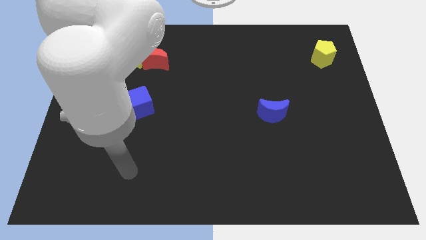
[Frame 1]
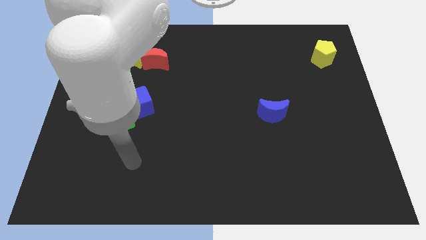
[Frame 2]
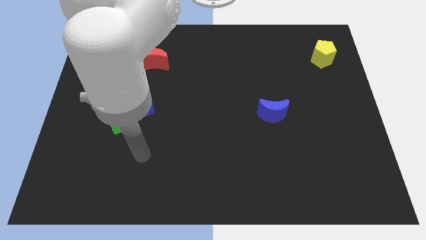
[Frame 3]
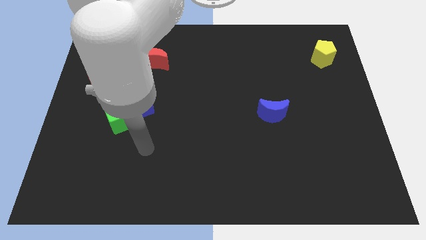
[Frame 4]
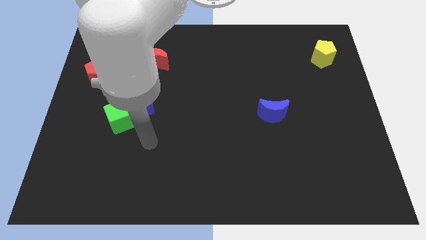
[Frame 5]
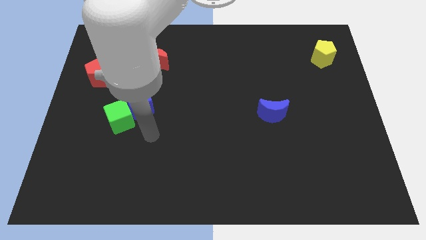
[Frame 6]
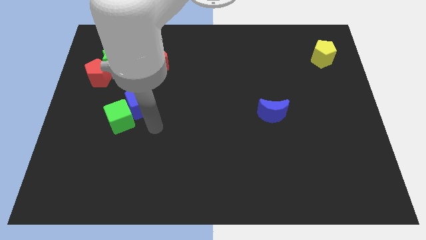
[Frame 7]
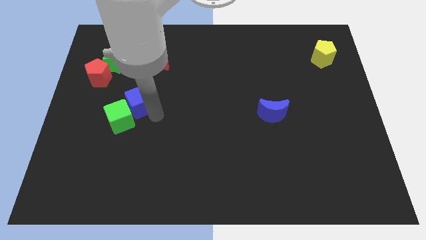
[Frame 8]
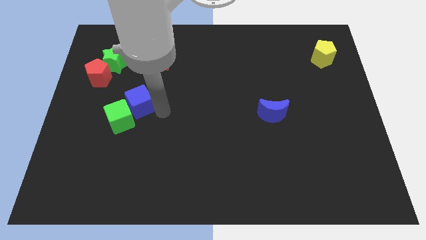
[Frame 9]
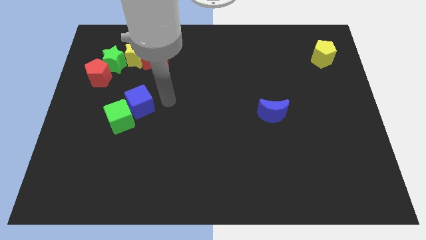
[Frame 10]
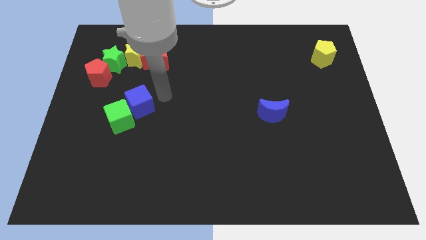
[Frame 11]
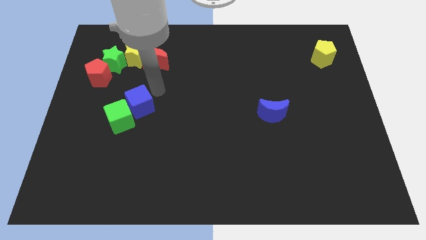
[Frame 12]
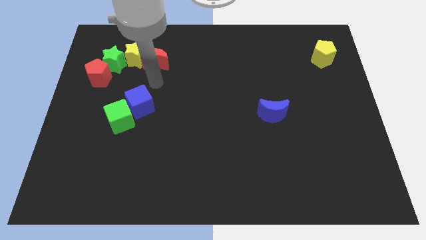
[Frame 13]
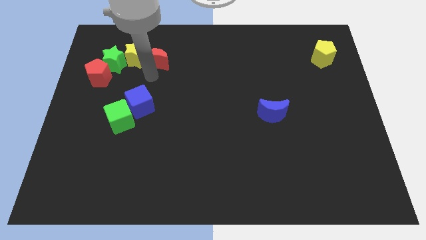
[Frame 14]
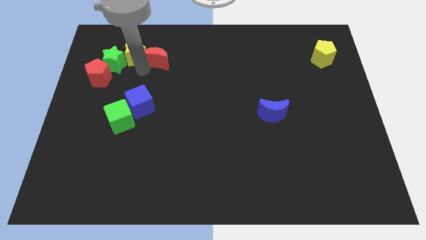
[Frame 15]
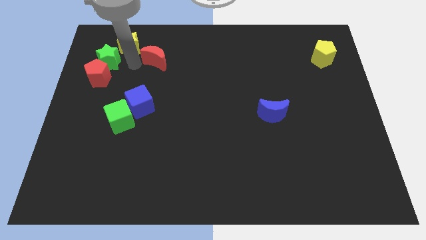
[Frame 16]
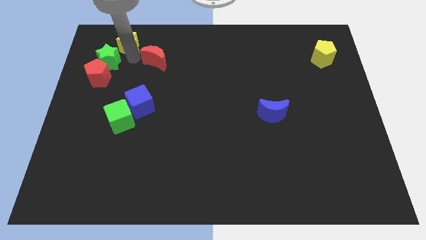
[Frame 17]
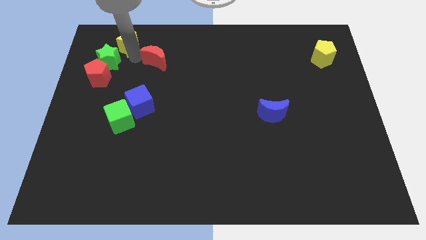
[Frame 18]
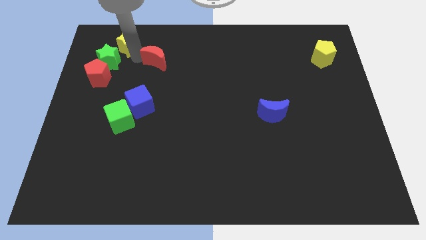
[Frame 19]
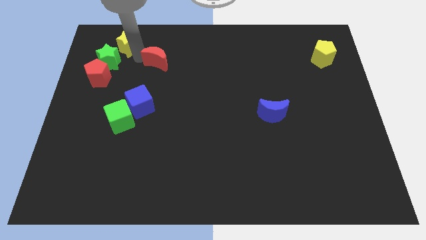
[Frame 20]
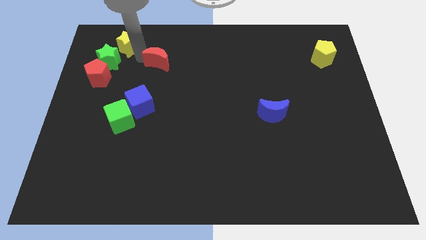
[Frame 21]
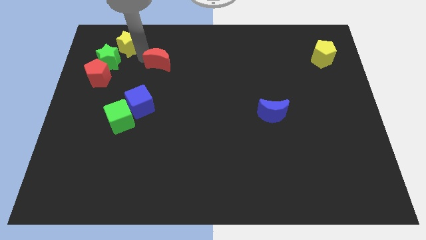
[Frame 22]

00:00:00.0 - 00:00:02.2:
pull the red moon apart from the yellow star

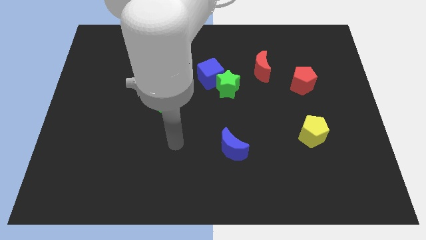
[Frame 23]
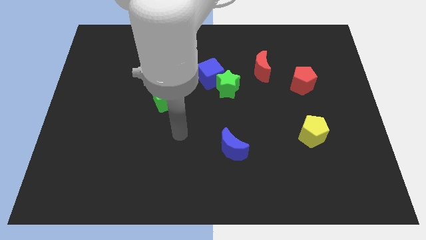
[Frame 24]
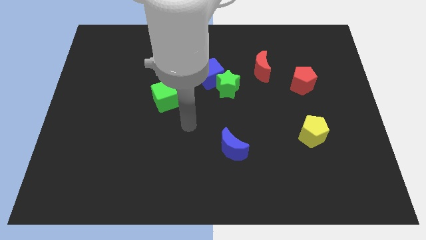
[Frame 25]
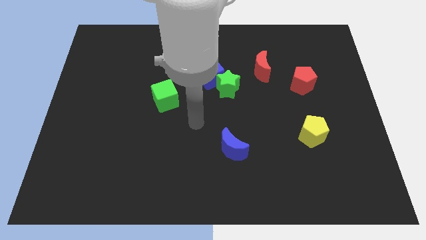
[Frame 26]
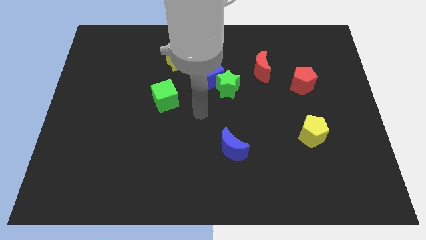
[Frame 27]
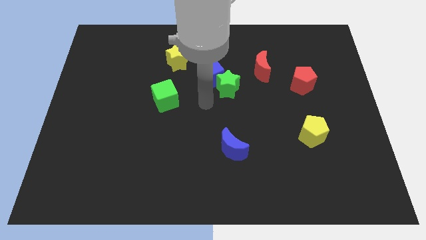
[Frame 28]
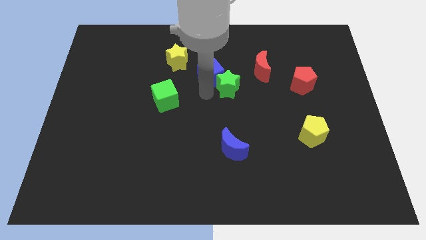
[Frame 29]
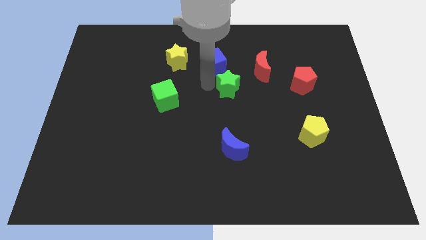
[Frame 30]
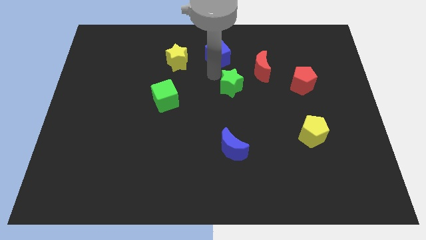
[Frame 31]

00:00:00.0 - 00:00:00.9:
pull the green star apart from the blue cube

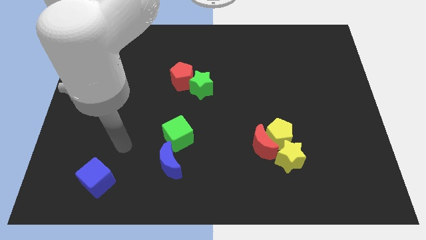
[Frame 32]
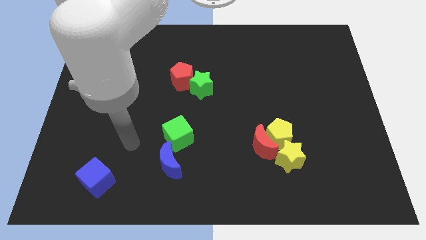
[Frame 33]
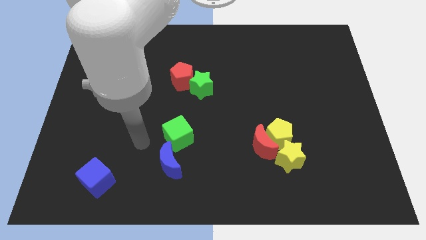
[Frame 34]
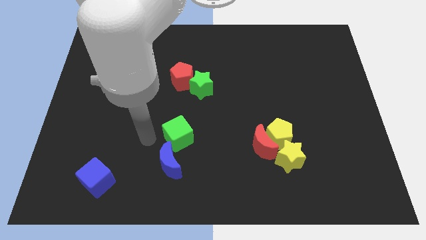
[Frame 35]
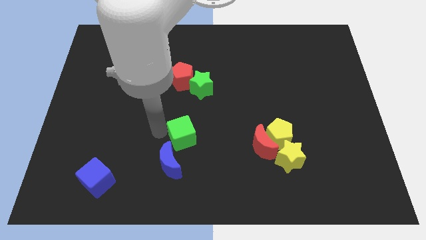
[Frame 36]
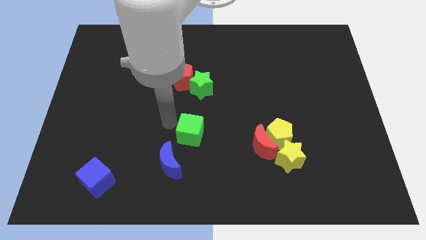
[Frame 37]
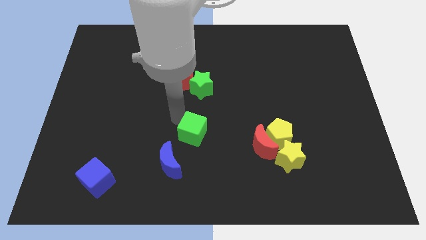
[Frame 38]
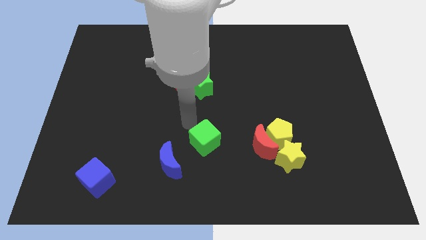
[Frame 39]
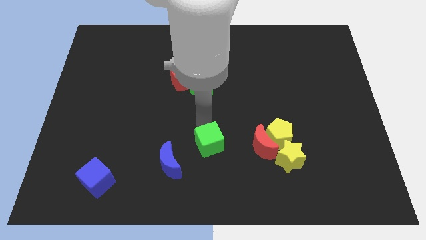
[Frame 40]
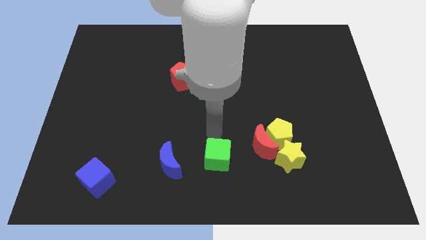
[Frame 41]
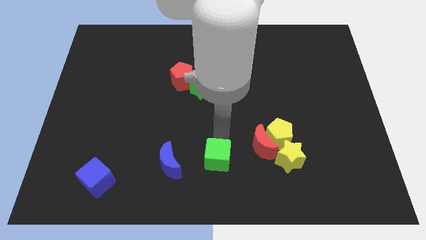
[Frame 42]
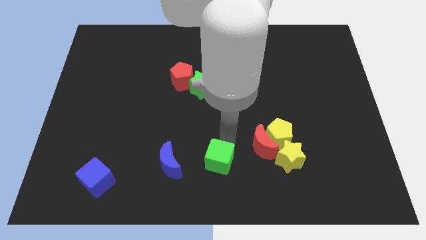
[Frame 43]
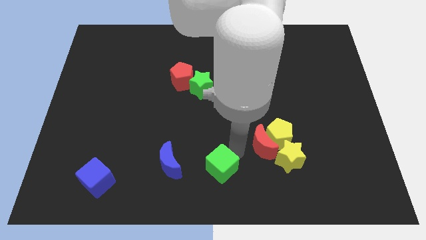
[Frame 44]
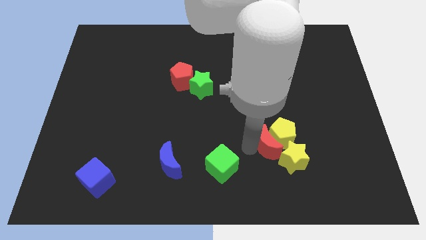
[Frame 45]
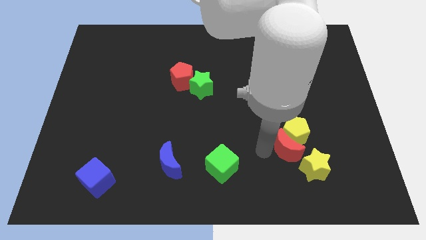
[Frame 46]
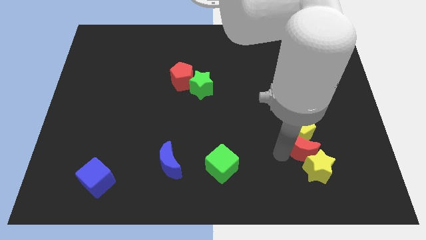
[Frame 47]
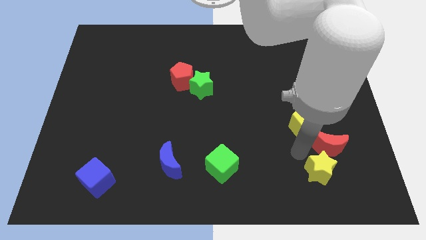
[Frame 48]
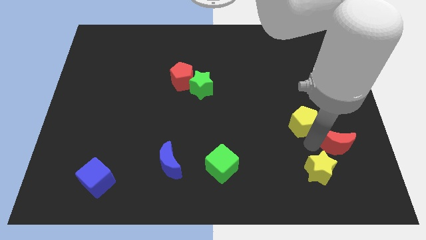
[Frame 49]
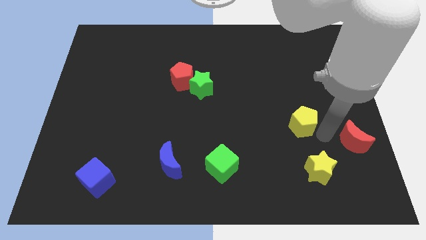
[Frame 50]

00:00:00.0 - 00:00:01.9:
pull the yellow pentagon apart from the red moon and yellow star

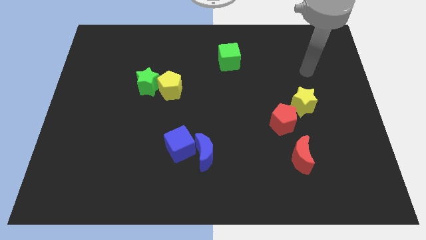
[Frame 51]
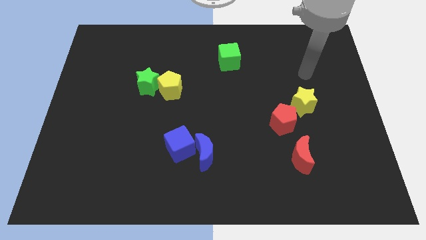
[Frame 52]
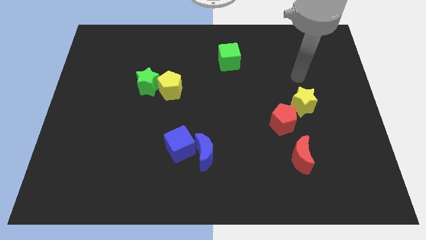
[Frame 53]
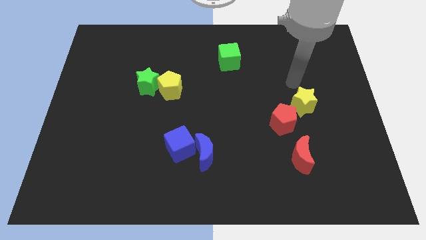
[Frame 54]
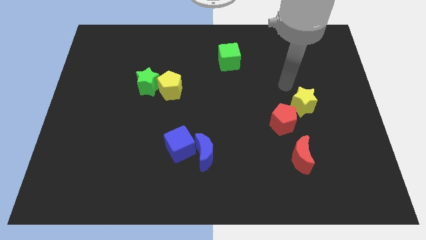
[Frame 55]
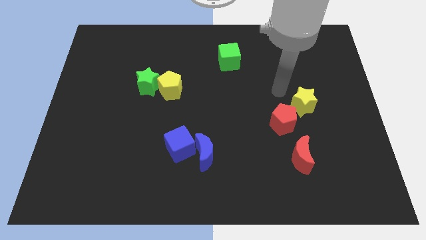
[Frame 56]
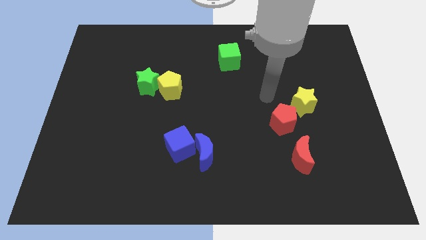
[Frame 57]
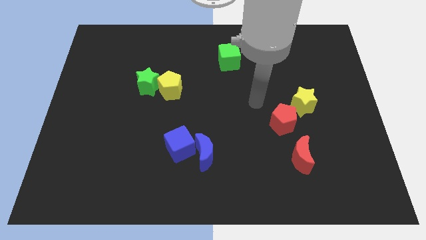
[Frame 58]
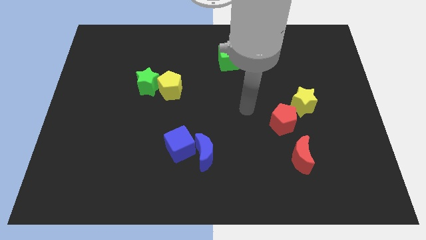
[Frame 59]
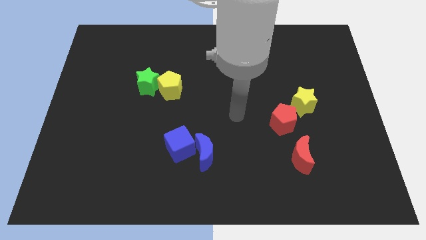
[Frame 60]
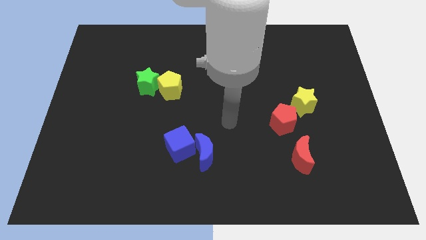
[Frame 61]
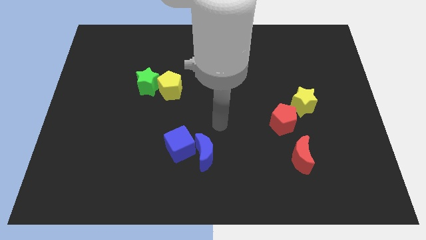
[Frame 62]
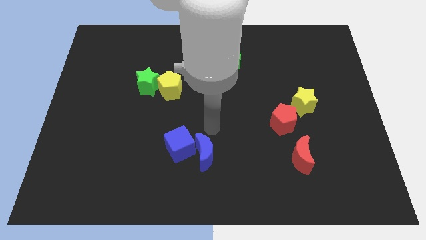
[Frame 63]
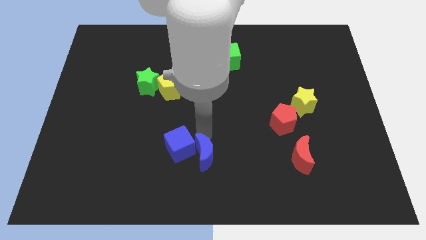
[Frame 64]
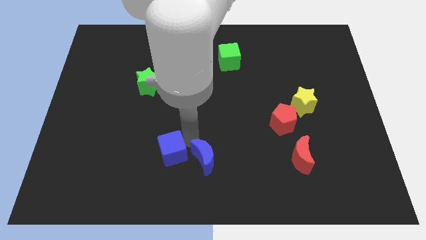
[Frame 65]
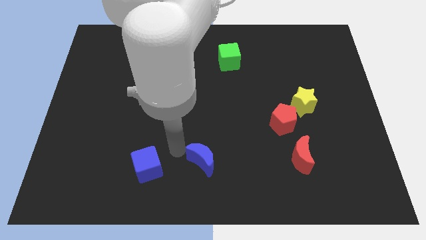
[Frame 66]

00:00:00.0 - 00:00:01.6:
move the blue moon away from the blue cube

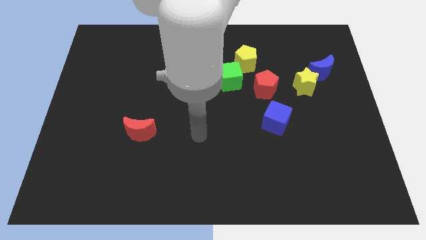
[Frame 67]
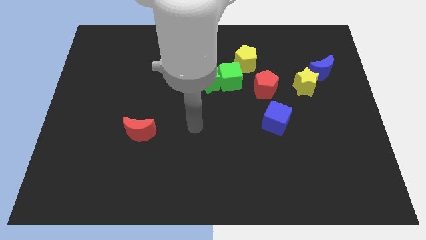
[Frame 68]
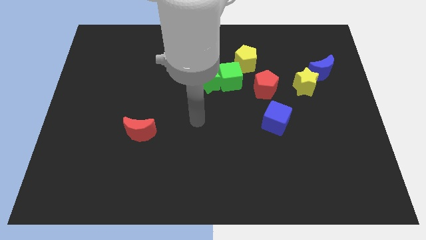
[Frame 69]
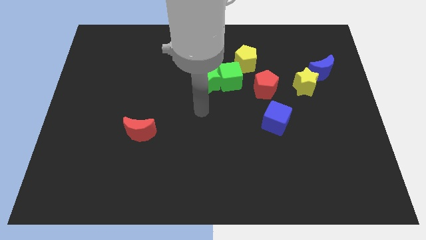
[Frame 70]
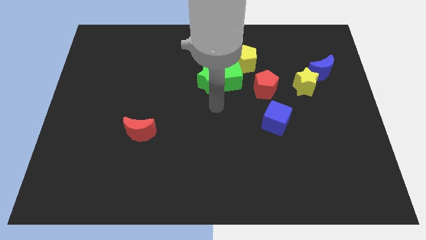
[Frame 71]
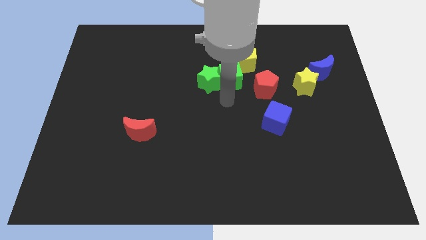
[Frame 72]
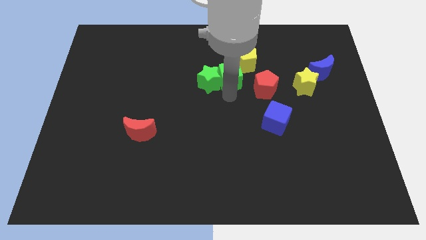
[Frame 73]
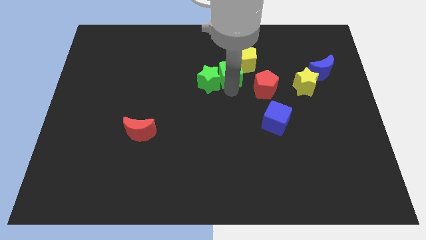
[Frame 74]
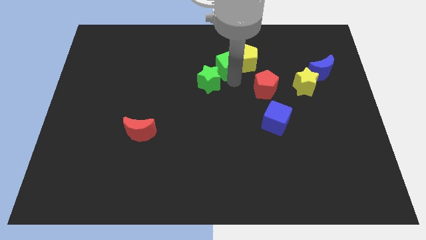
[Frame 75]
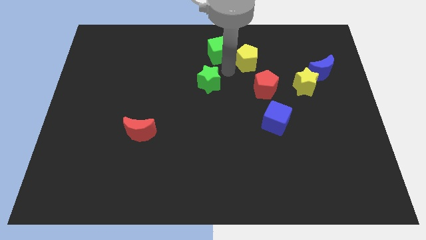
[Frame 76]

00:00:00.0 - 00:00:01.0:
move the green star away from the green cube

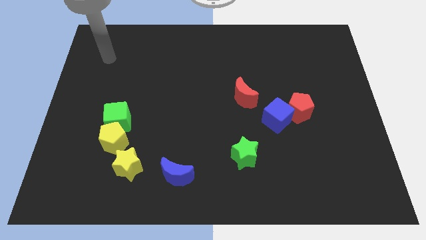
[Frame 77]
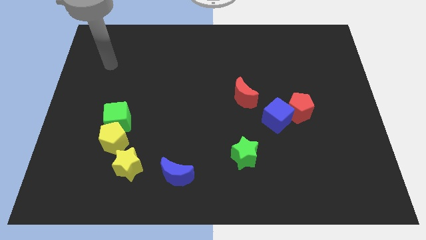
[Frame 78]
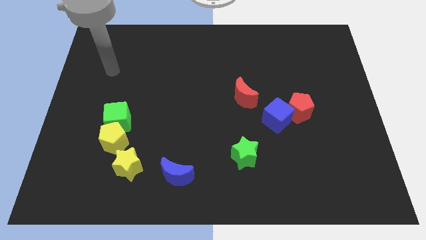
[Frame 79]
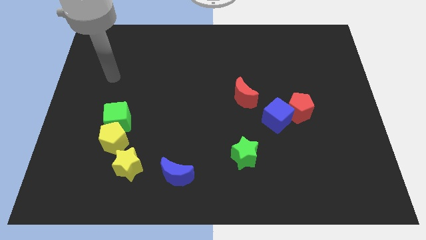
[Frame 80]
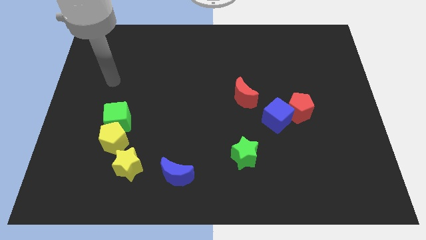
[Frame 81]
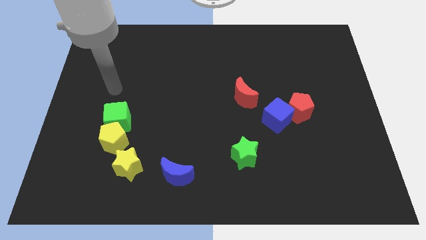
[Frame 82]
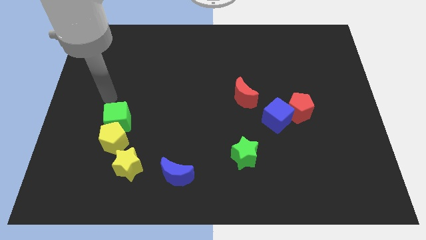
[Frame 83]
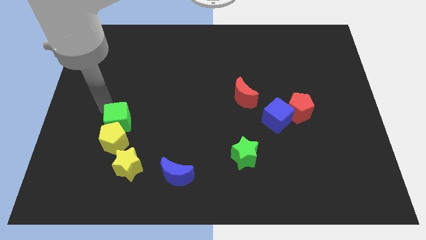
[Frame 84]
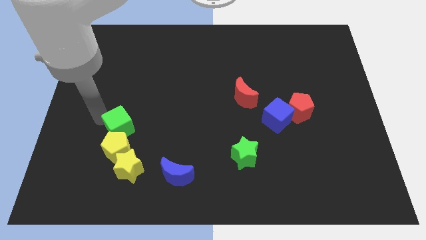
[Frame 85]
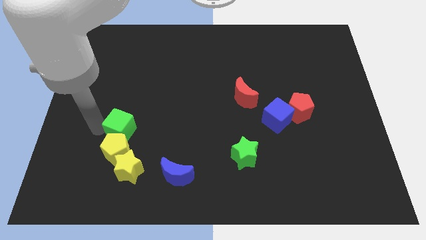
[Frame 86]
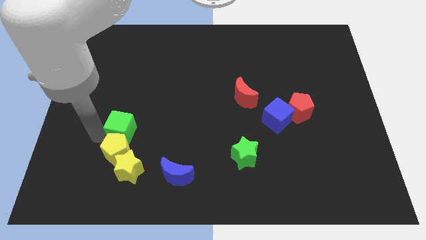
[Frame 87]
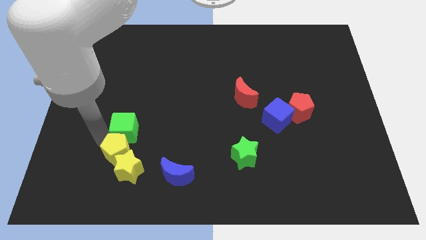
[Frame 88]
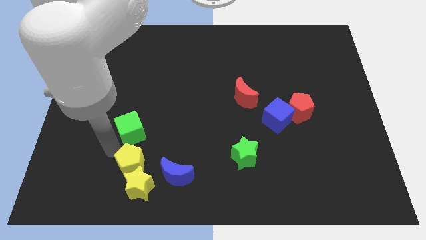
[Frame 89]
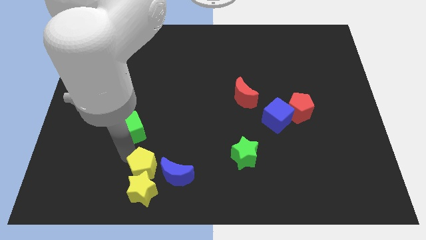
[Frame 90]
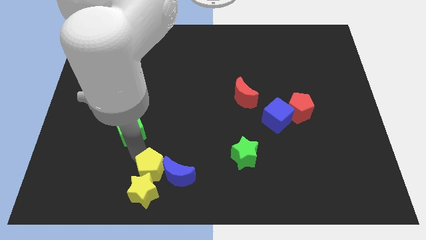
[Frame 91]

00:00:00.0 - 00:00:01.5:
separate the green cube from the yellow pentagon

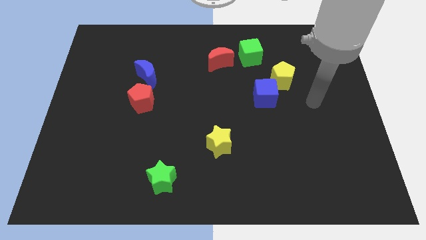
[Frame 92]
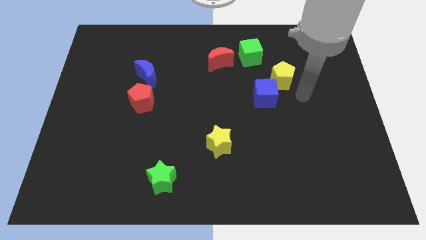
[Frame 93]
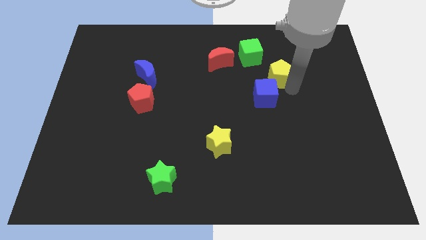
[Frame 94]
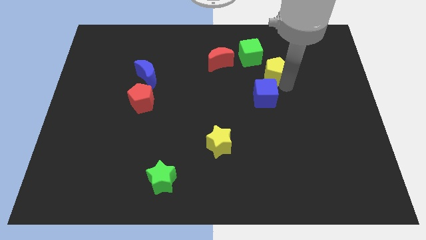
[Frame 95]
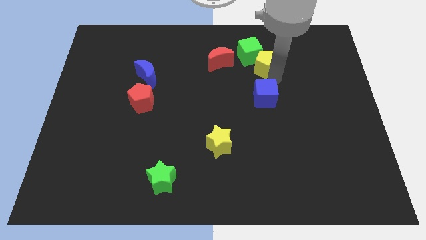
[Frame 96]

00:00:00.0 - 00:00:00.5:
separate the blue cube from the yellow pentagon
